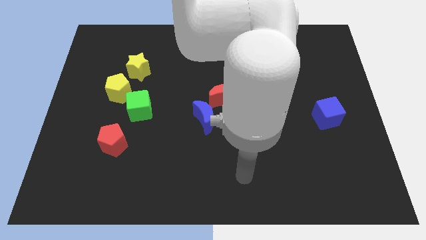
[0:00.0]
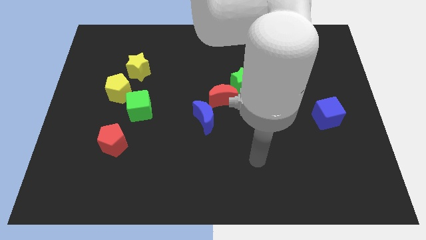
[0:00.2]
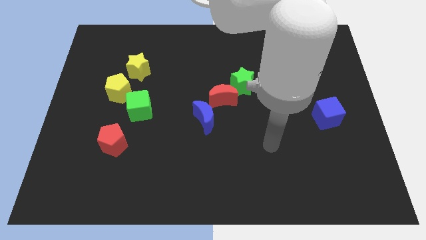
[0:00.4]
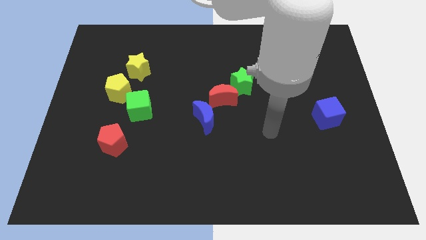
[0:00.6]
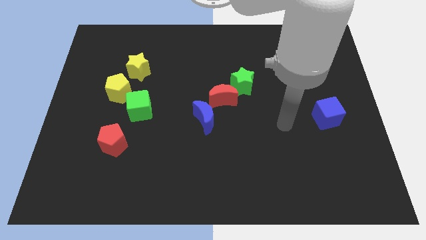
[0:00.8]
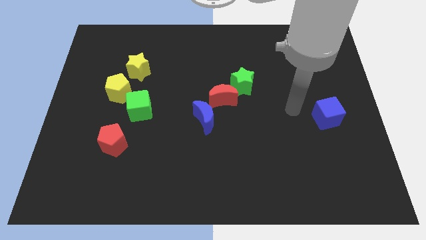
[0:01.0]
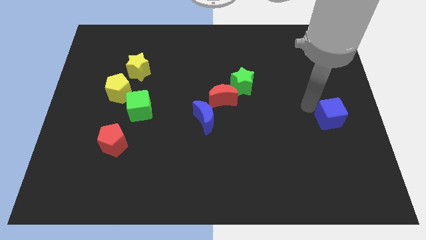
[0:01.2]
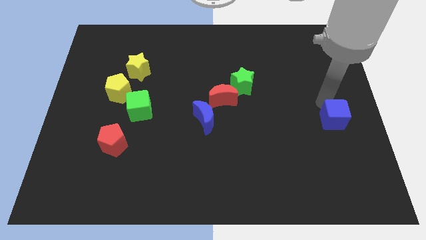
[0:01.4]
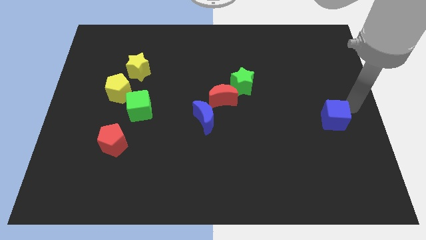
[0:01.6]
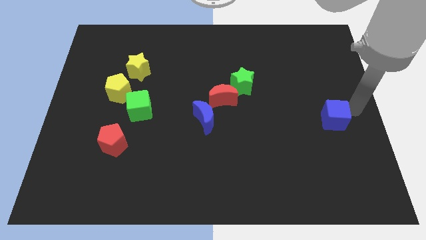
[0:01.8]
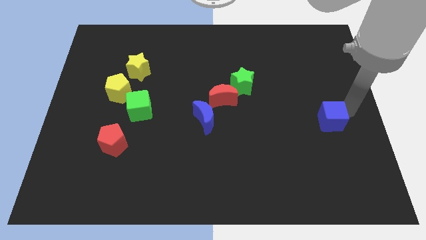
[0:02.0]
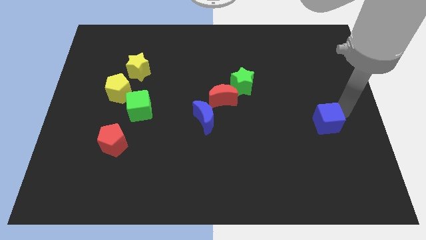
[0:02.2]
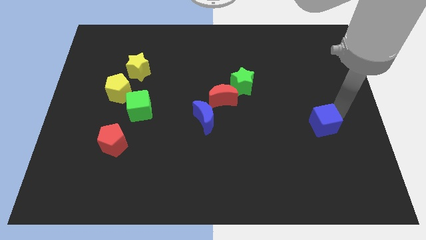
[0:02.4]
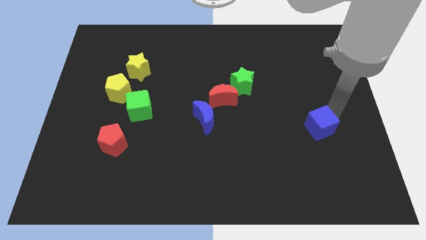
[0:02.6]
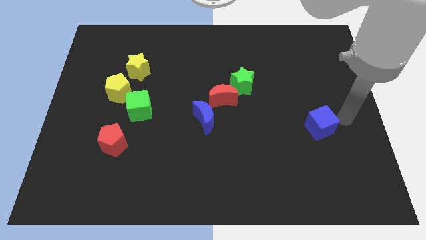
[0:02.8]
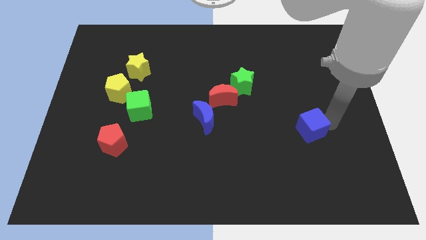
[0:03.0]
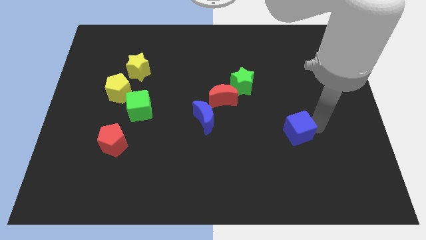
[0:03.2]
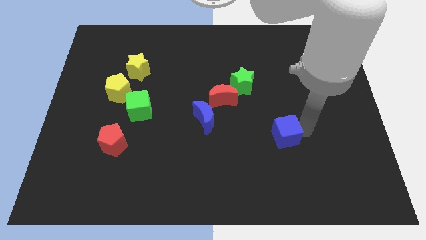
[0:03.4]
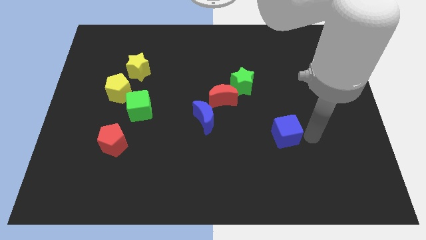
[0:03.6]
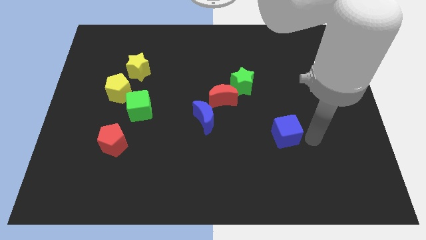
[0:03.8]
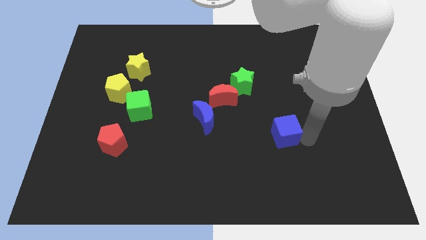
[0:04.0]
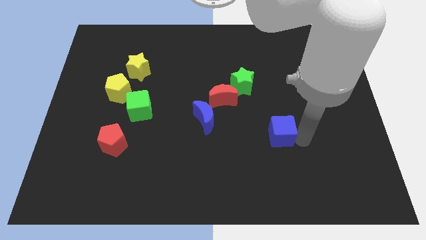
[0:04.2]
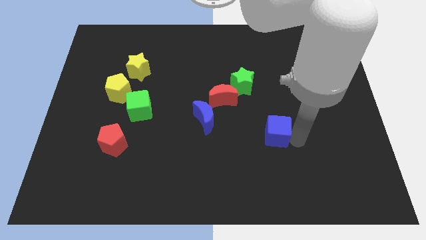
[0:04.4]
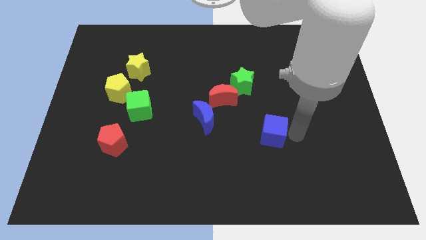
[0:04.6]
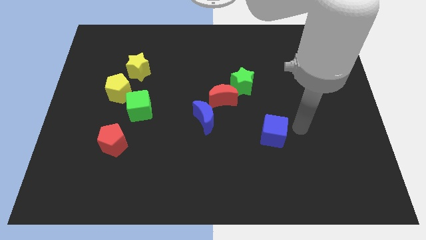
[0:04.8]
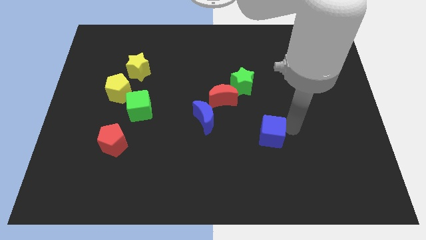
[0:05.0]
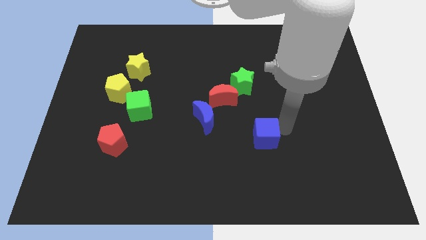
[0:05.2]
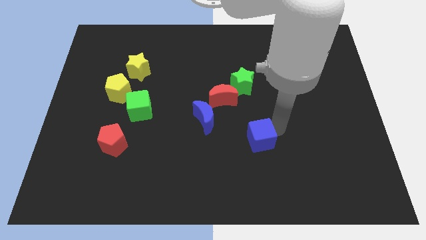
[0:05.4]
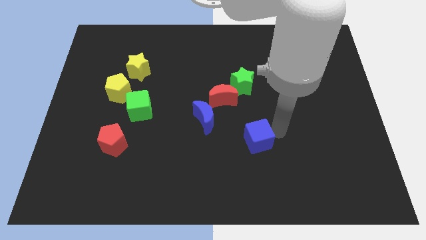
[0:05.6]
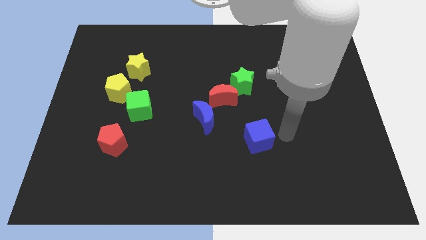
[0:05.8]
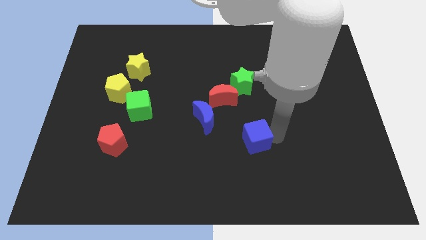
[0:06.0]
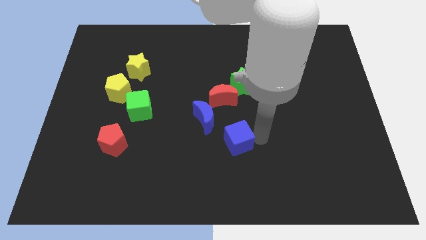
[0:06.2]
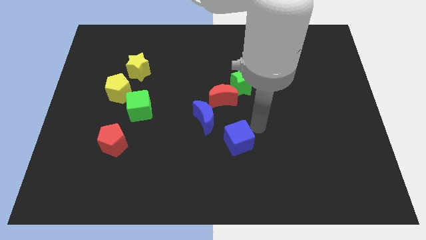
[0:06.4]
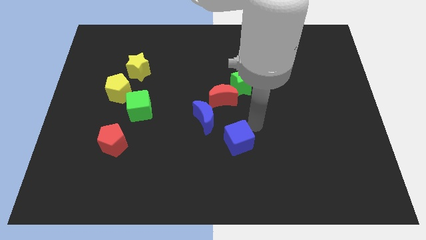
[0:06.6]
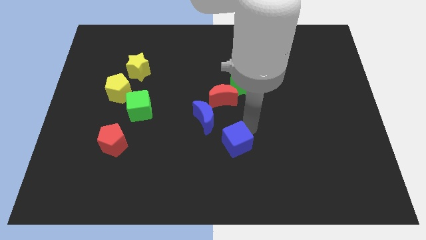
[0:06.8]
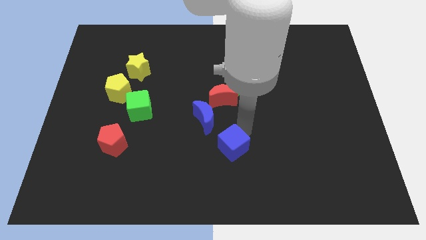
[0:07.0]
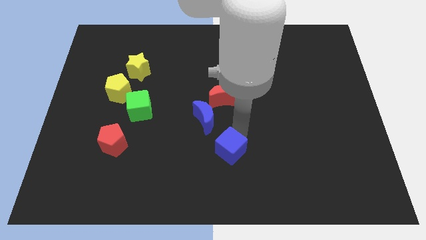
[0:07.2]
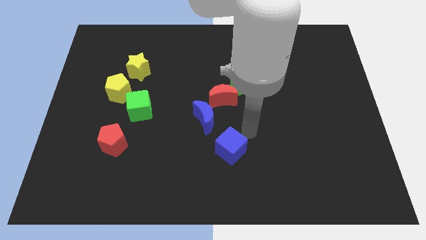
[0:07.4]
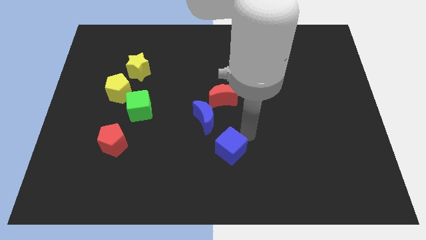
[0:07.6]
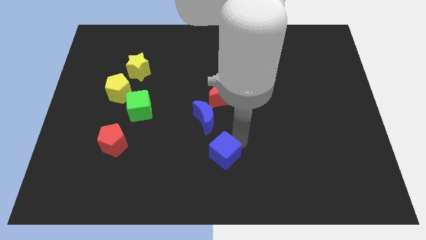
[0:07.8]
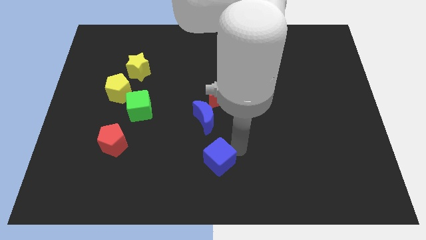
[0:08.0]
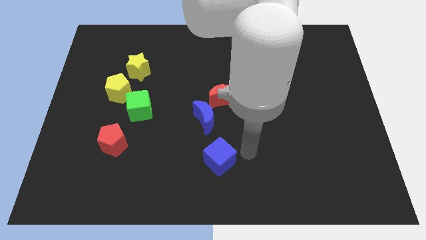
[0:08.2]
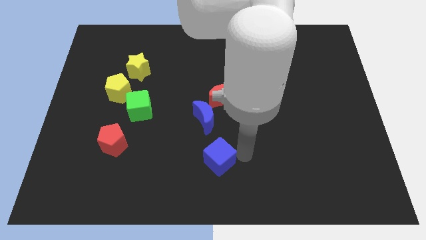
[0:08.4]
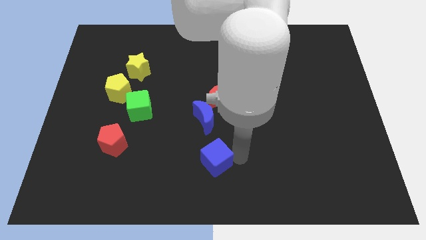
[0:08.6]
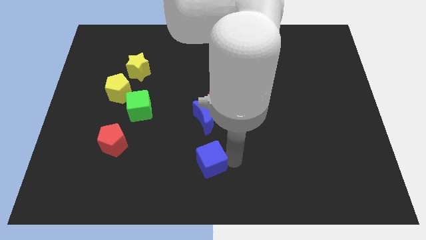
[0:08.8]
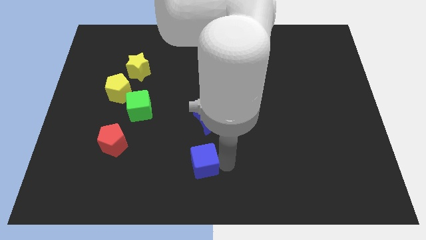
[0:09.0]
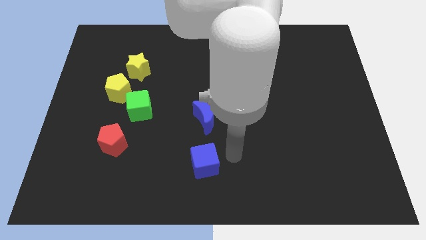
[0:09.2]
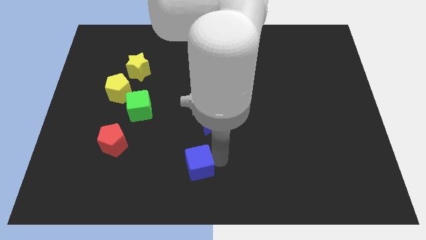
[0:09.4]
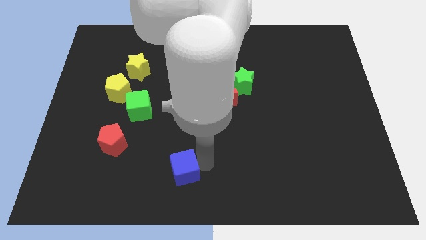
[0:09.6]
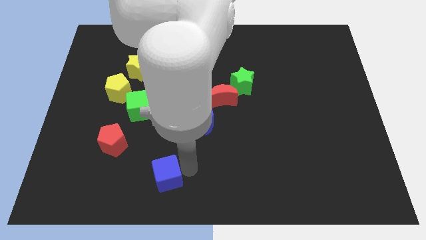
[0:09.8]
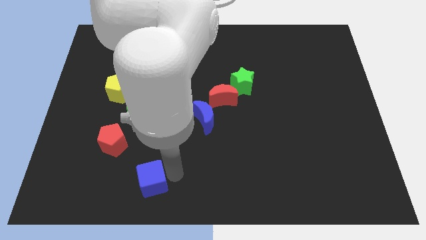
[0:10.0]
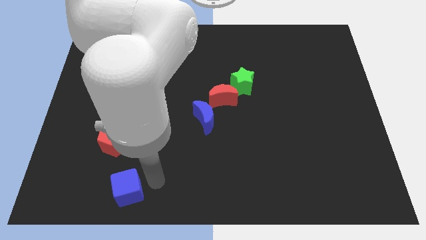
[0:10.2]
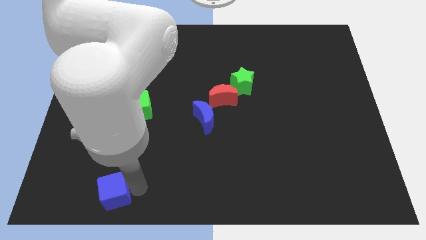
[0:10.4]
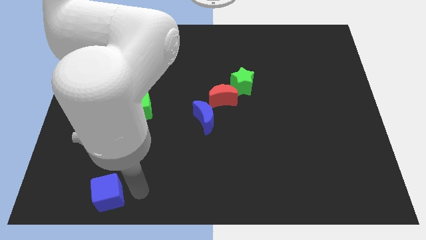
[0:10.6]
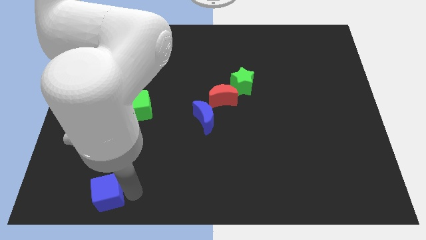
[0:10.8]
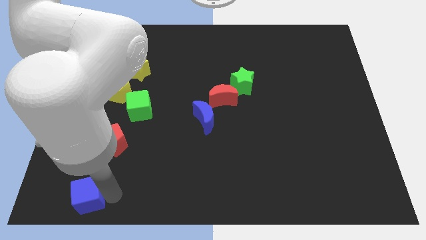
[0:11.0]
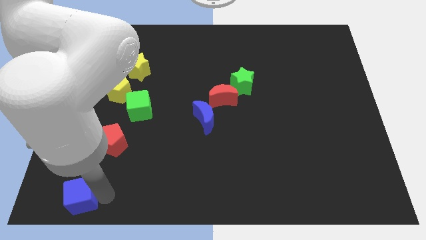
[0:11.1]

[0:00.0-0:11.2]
push the blue cube to the bottom left
